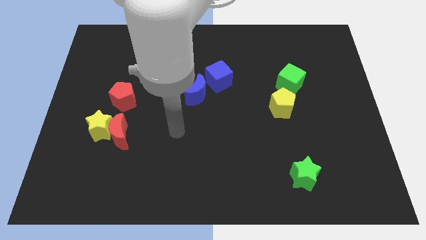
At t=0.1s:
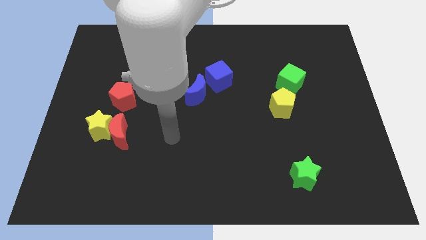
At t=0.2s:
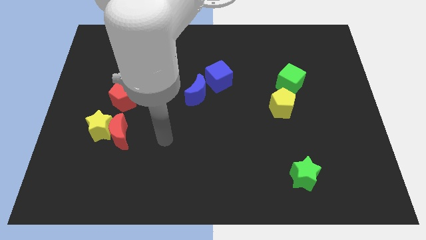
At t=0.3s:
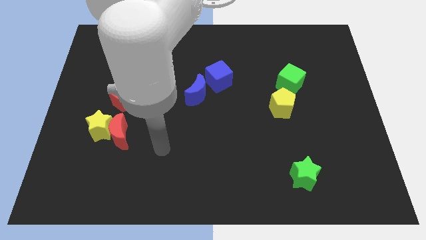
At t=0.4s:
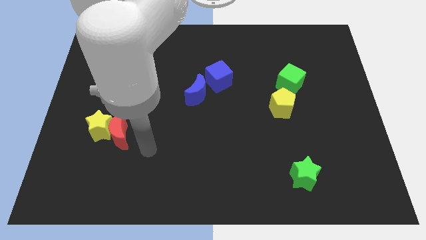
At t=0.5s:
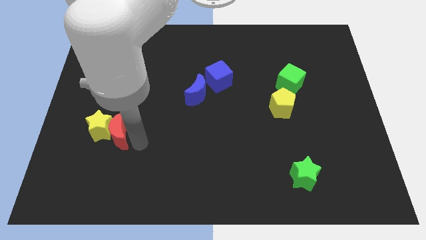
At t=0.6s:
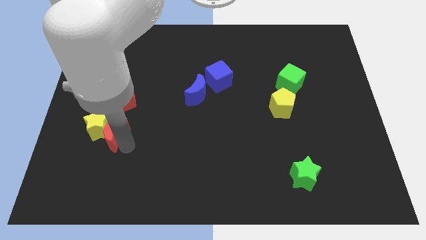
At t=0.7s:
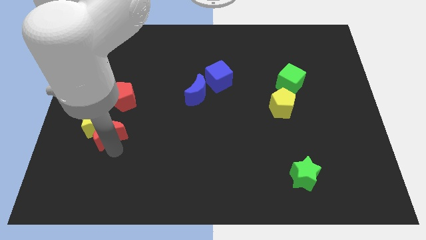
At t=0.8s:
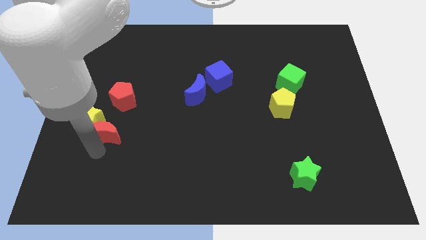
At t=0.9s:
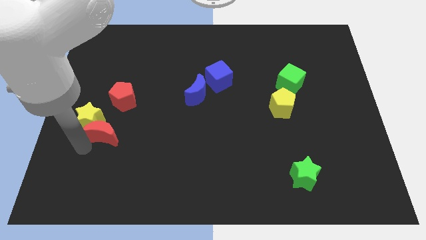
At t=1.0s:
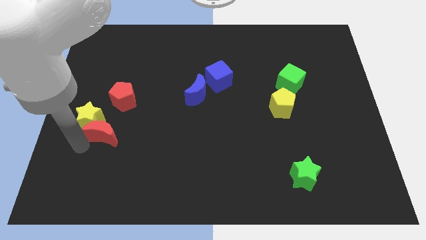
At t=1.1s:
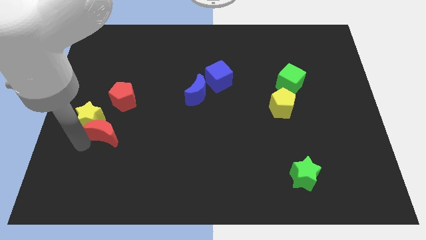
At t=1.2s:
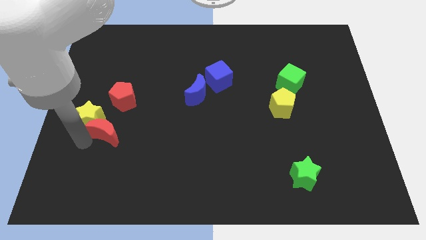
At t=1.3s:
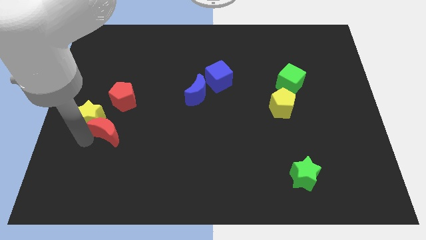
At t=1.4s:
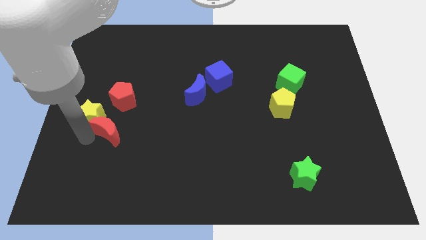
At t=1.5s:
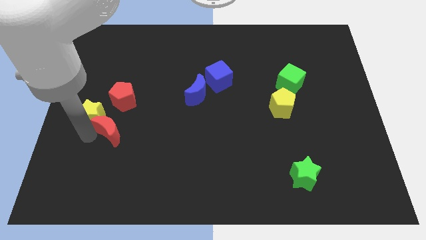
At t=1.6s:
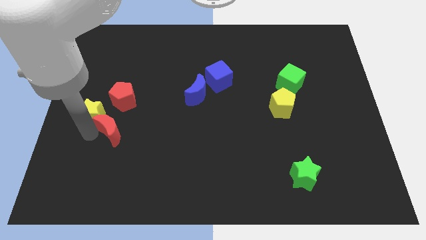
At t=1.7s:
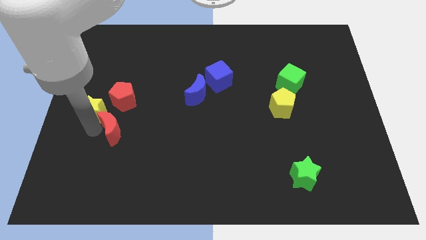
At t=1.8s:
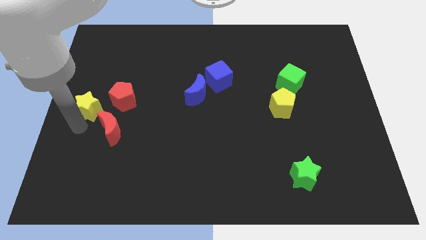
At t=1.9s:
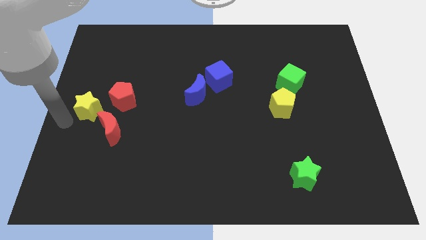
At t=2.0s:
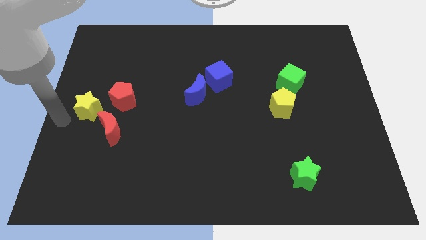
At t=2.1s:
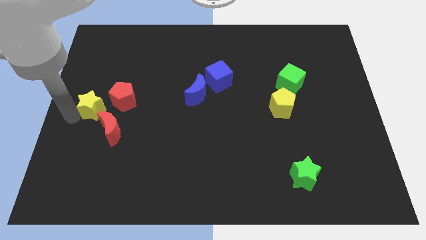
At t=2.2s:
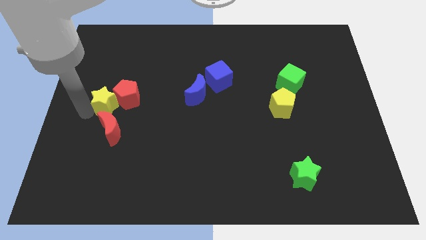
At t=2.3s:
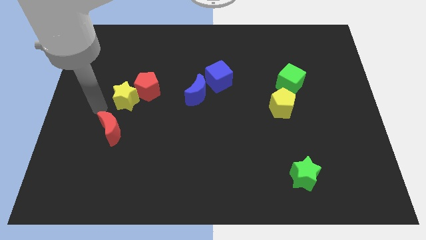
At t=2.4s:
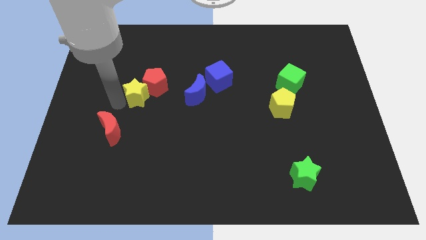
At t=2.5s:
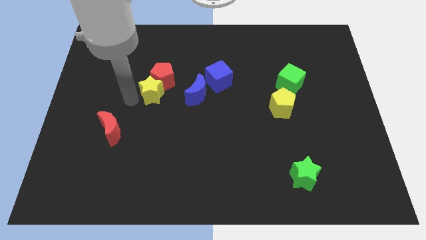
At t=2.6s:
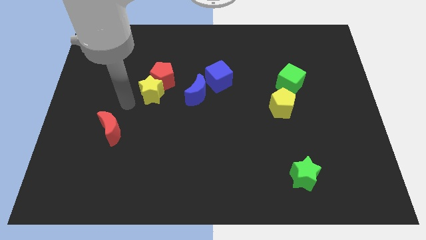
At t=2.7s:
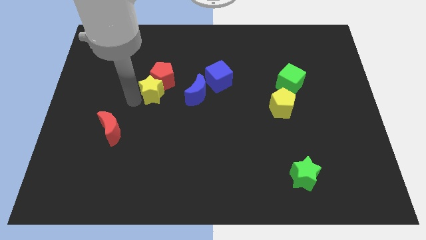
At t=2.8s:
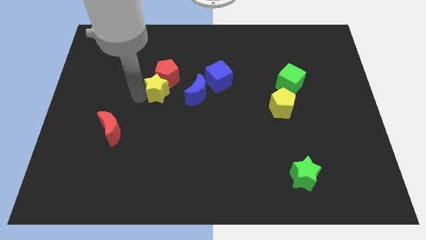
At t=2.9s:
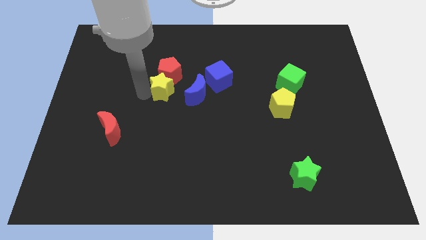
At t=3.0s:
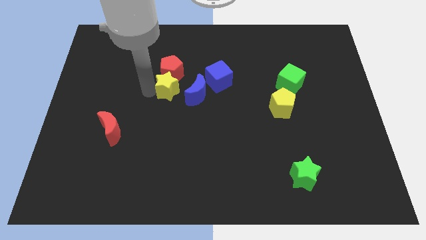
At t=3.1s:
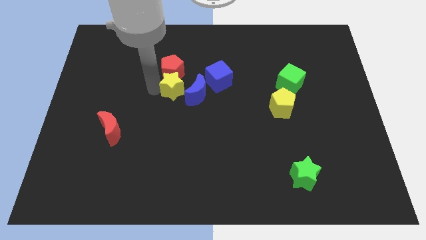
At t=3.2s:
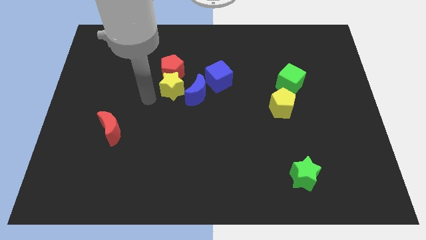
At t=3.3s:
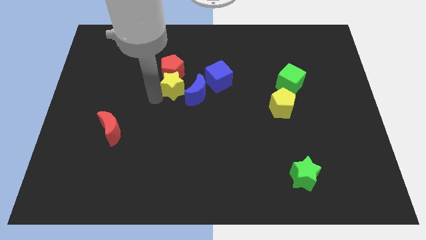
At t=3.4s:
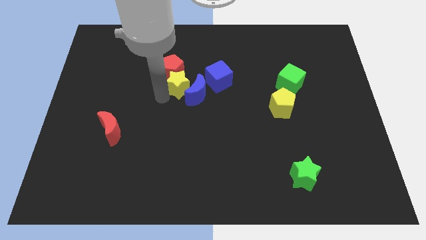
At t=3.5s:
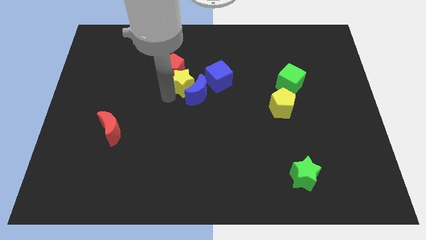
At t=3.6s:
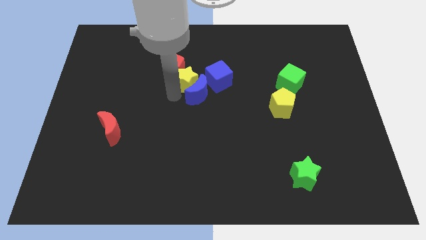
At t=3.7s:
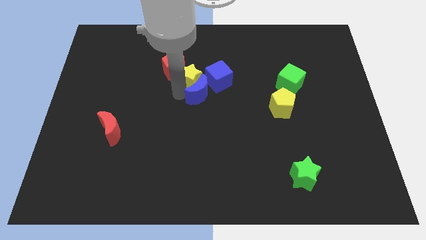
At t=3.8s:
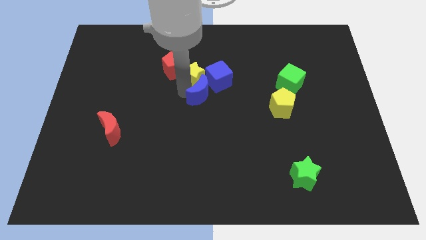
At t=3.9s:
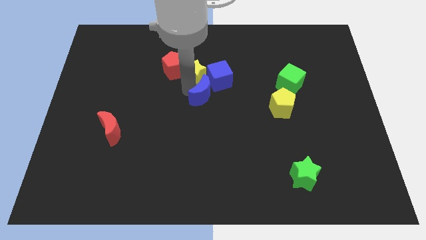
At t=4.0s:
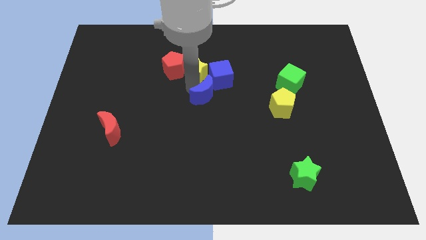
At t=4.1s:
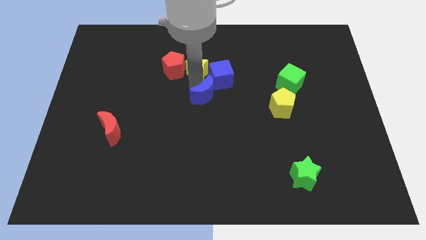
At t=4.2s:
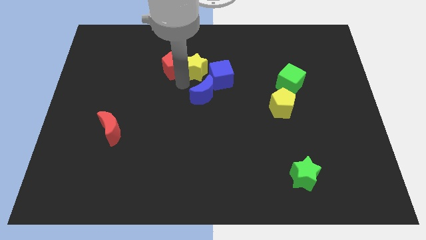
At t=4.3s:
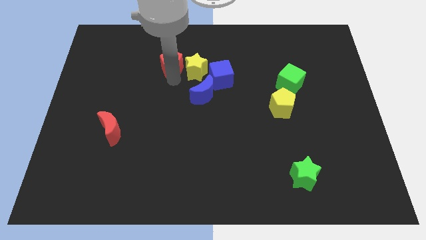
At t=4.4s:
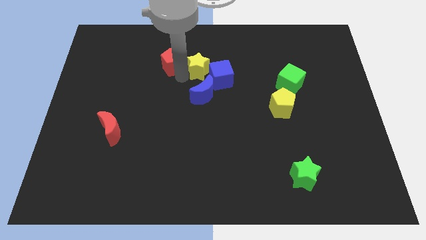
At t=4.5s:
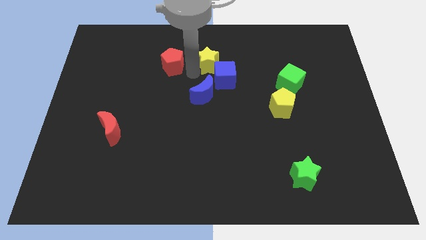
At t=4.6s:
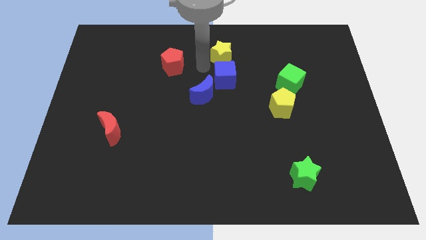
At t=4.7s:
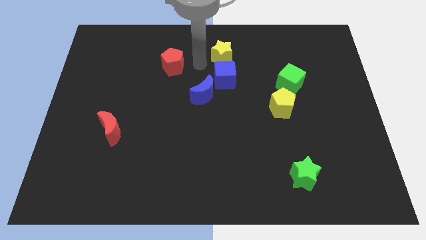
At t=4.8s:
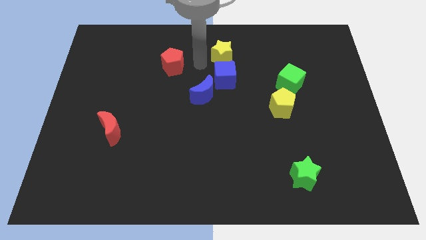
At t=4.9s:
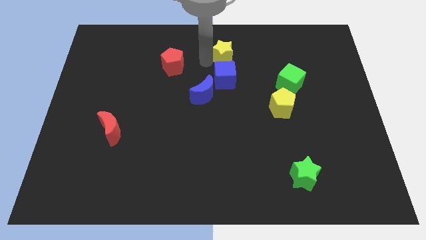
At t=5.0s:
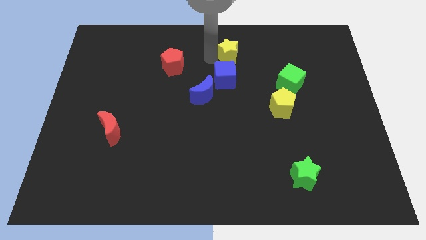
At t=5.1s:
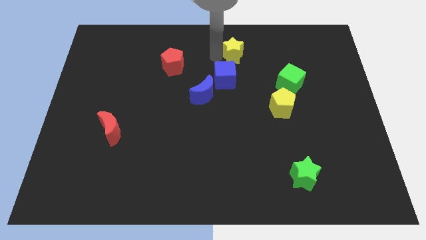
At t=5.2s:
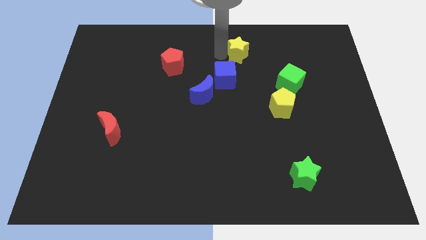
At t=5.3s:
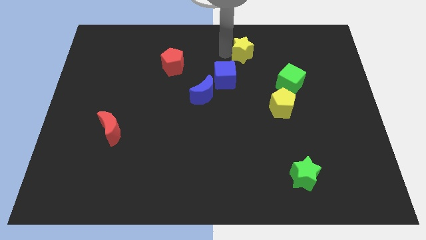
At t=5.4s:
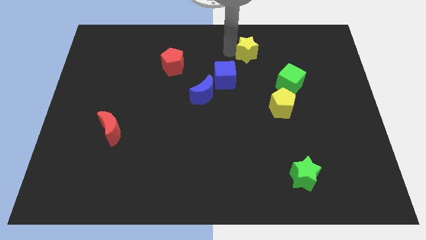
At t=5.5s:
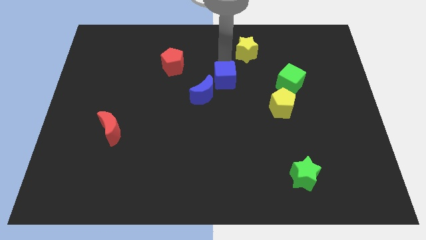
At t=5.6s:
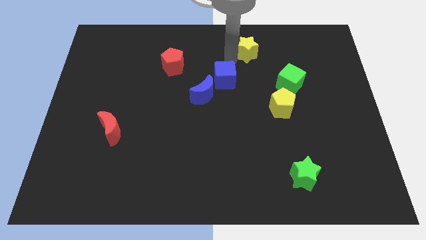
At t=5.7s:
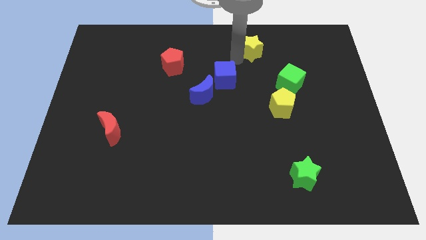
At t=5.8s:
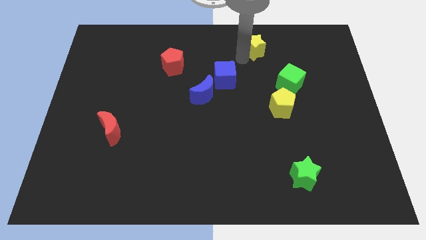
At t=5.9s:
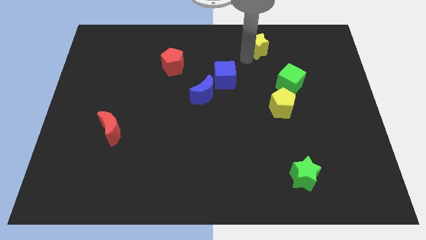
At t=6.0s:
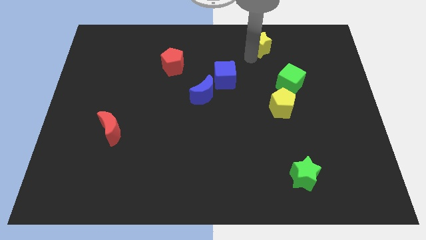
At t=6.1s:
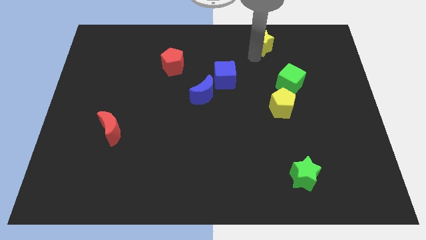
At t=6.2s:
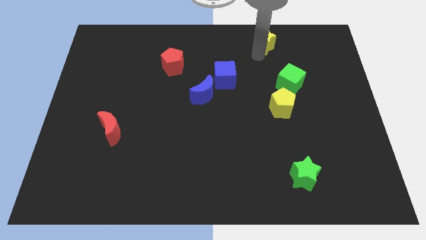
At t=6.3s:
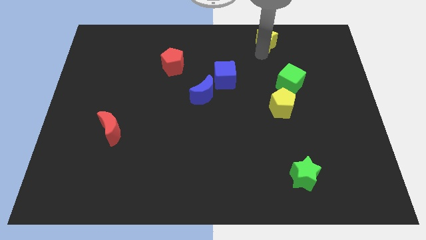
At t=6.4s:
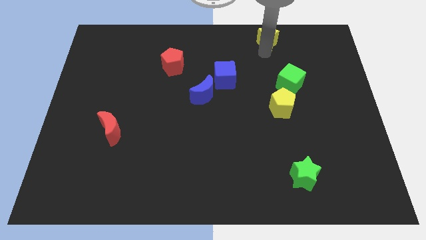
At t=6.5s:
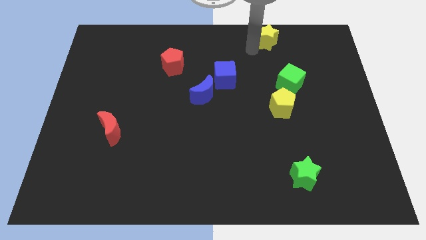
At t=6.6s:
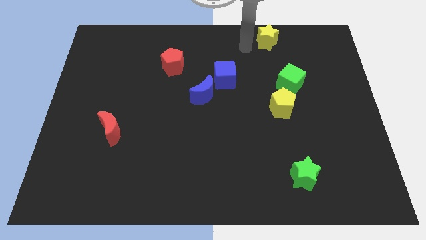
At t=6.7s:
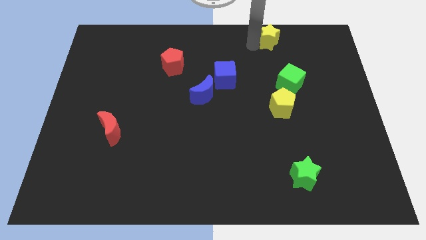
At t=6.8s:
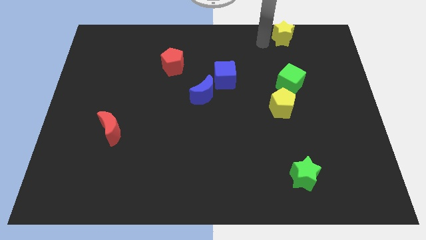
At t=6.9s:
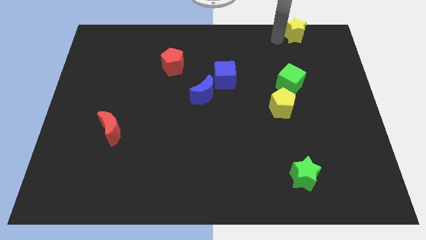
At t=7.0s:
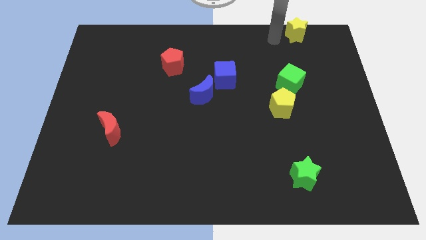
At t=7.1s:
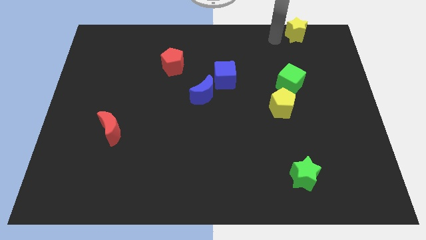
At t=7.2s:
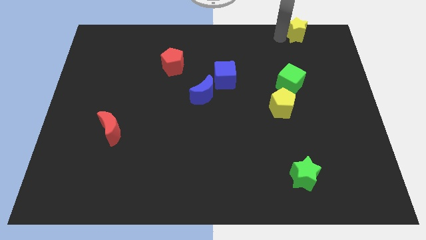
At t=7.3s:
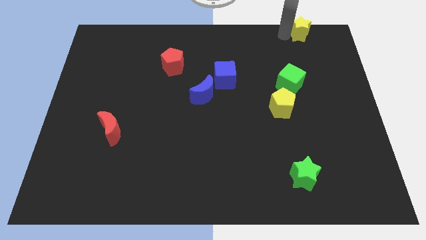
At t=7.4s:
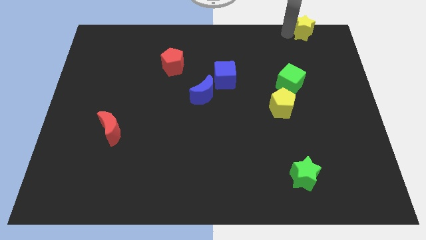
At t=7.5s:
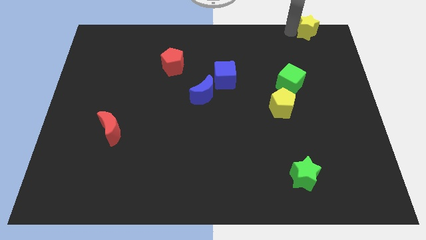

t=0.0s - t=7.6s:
push the yellow star to the top right of the board
